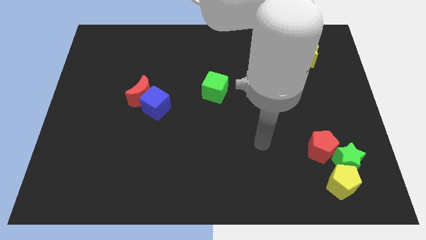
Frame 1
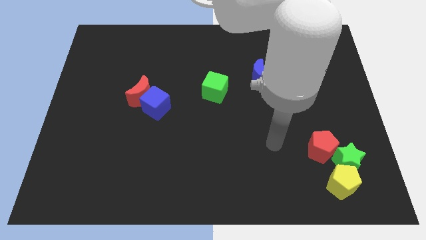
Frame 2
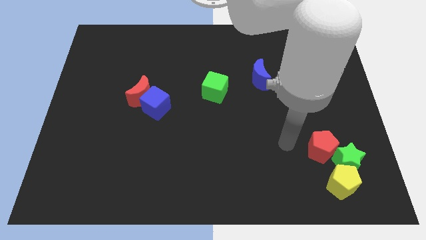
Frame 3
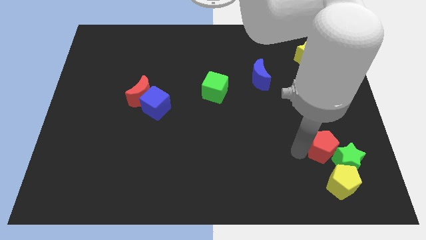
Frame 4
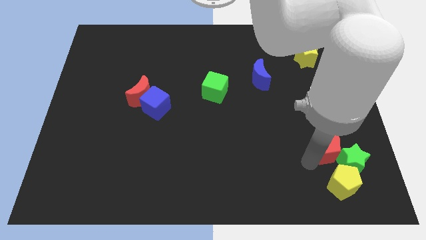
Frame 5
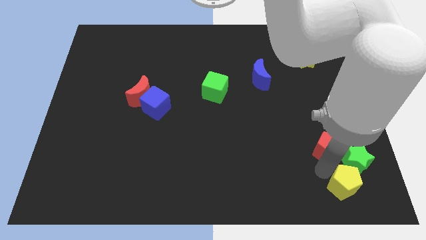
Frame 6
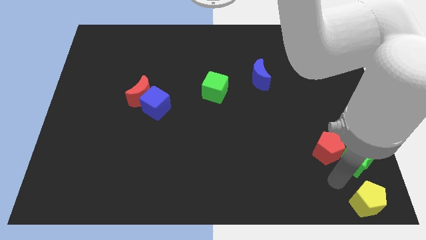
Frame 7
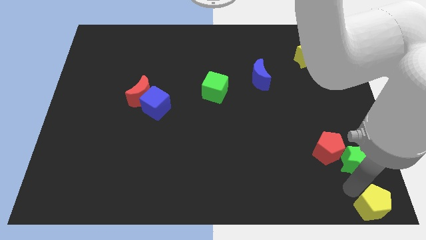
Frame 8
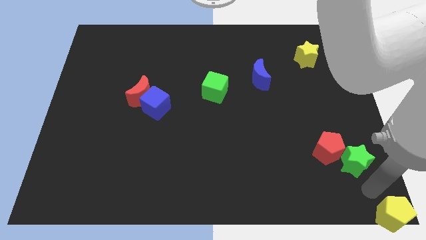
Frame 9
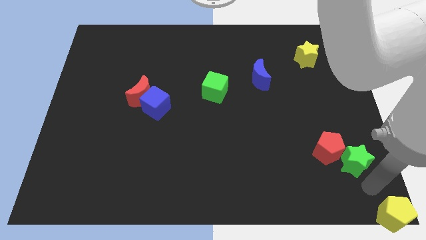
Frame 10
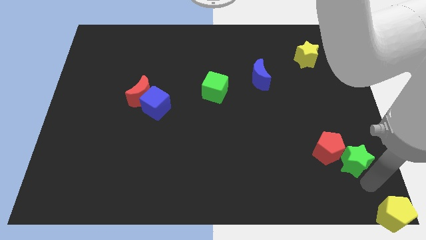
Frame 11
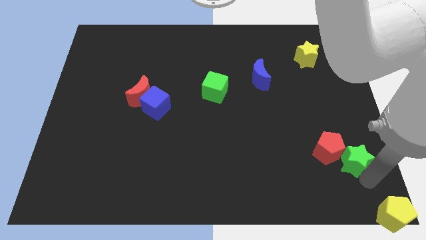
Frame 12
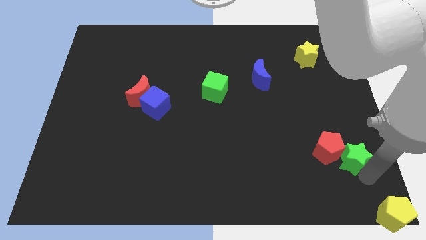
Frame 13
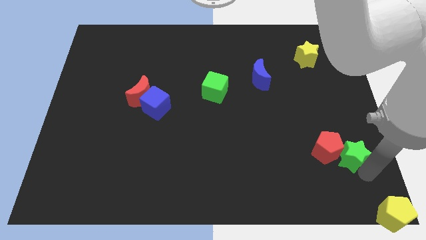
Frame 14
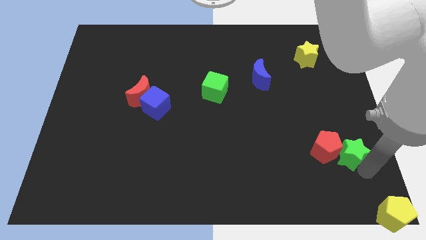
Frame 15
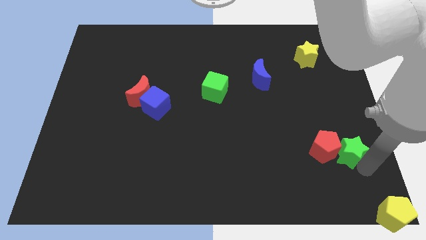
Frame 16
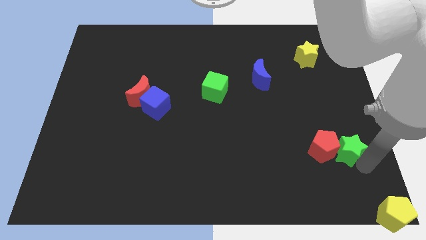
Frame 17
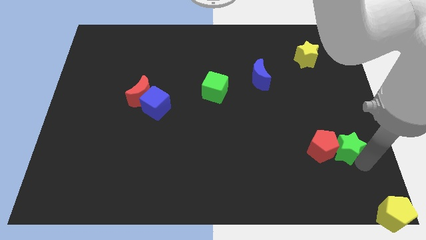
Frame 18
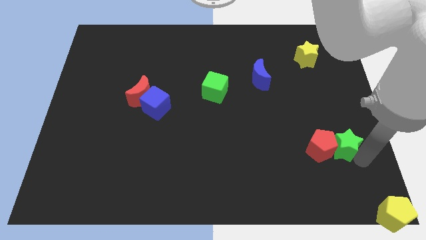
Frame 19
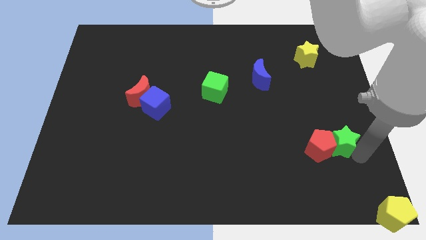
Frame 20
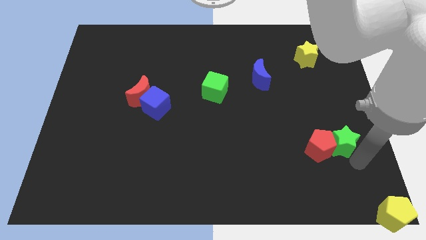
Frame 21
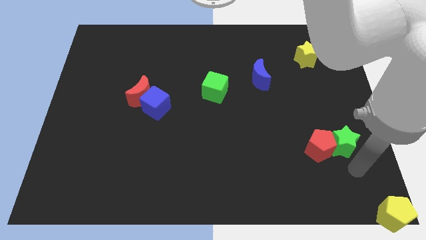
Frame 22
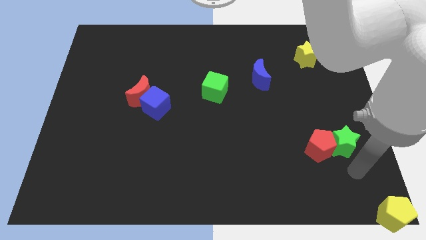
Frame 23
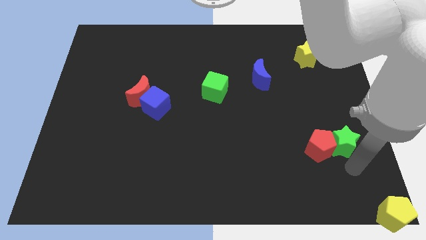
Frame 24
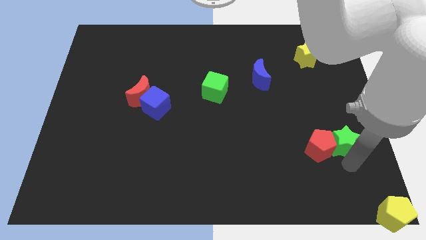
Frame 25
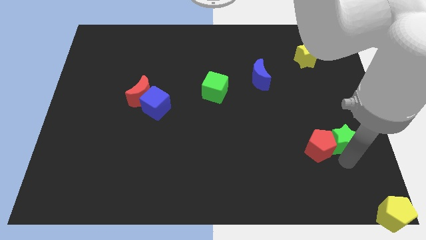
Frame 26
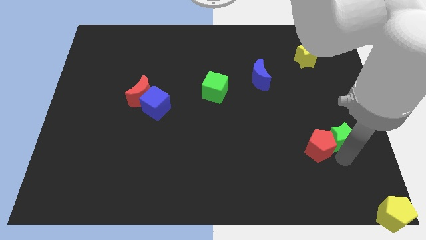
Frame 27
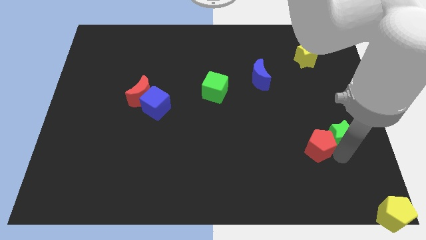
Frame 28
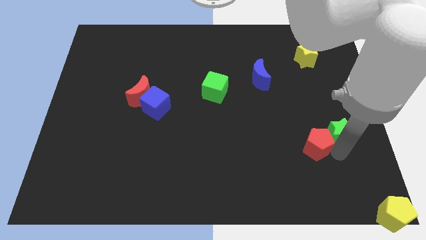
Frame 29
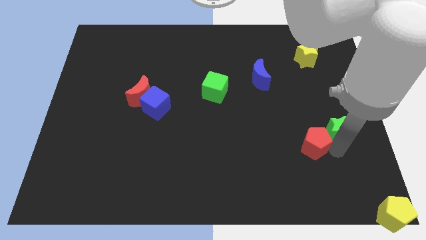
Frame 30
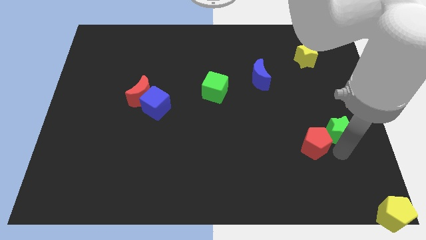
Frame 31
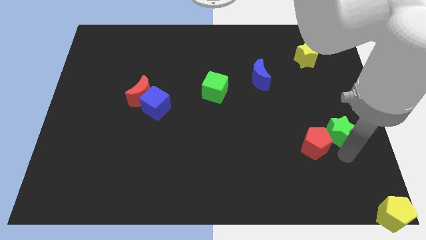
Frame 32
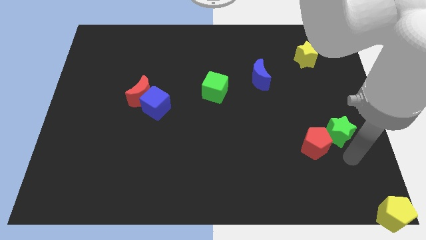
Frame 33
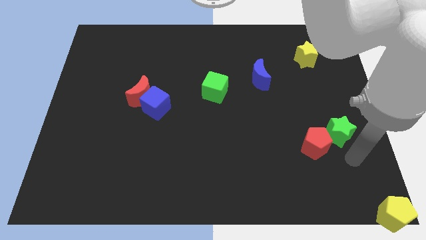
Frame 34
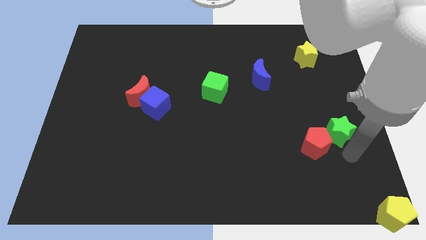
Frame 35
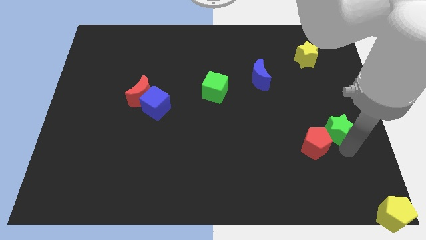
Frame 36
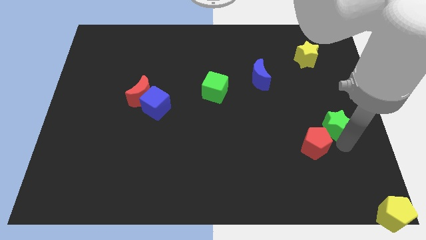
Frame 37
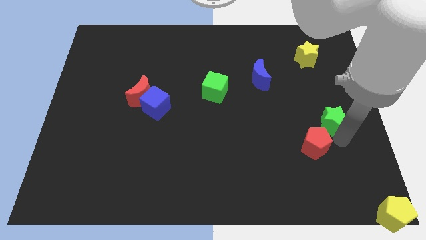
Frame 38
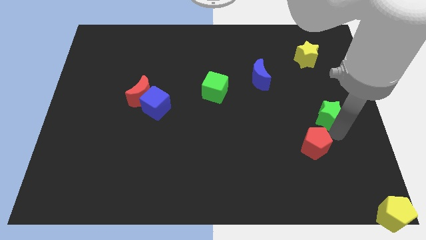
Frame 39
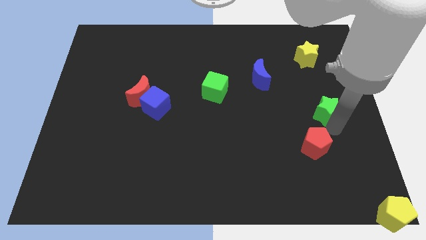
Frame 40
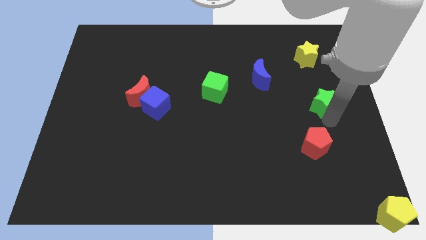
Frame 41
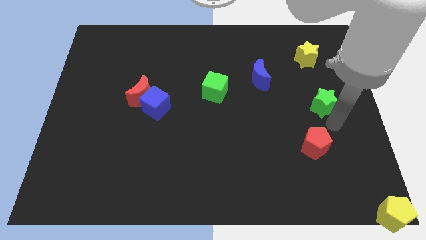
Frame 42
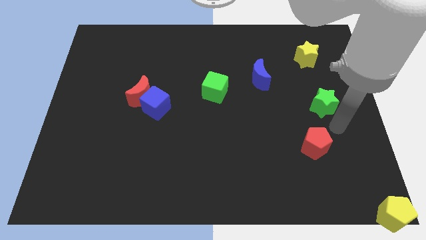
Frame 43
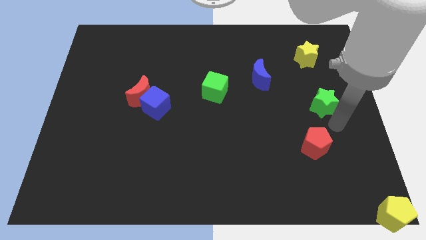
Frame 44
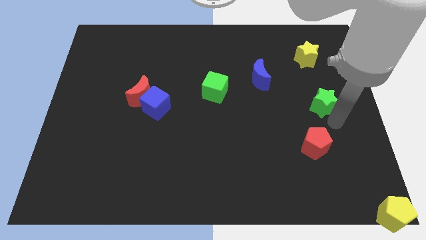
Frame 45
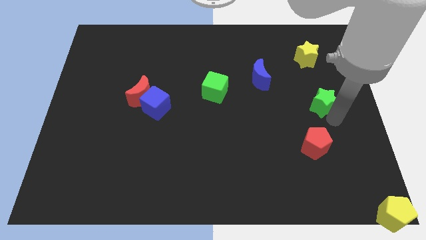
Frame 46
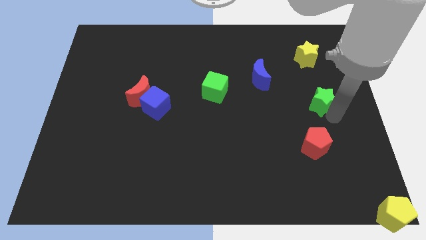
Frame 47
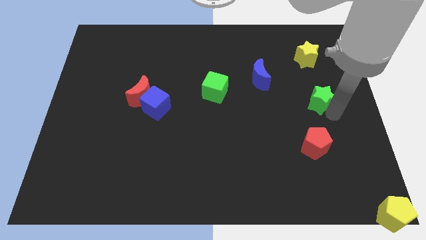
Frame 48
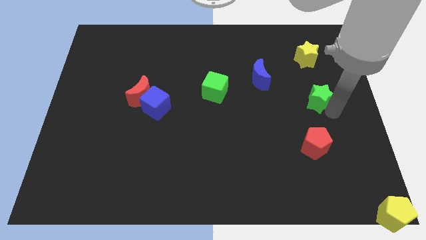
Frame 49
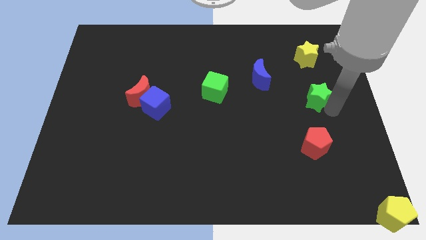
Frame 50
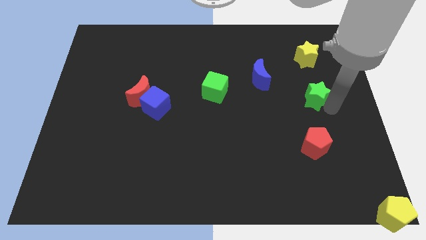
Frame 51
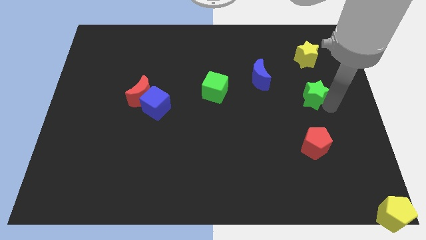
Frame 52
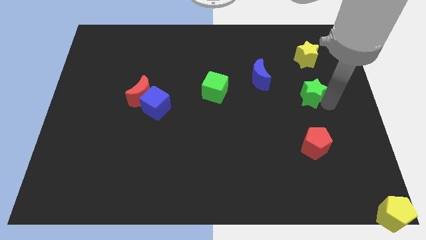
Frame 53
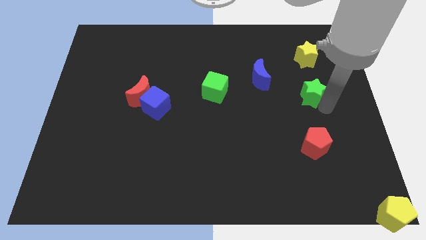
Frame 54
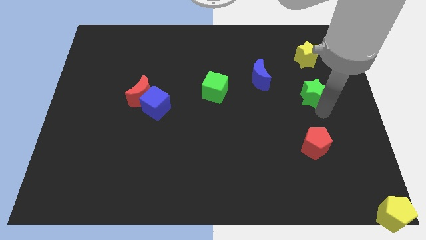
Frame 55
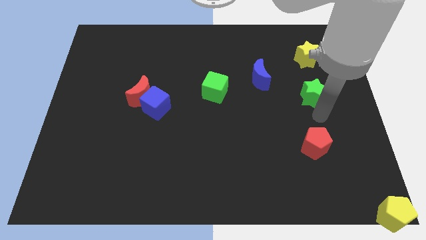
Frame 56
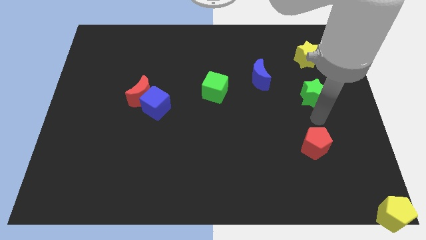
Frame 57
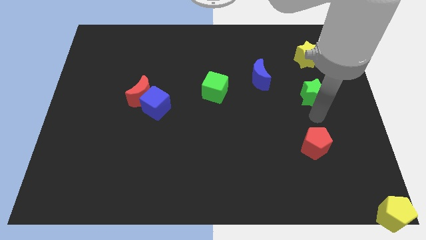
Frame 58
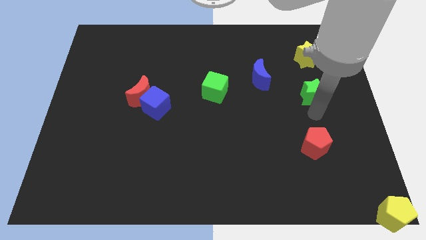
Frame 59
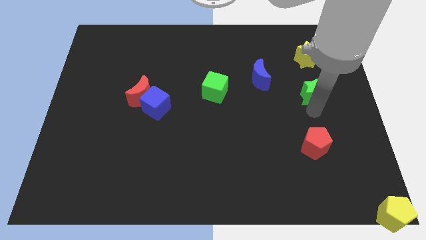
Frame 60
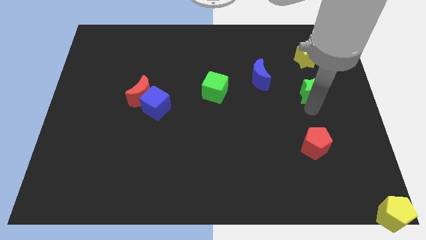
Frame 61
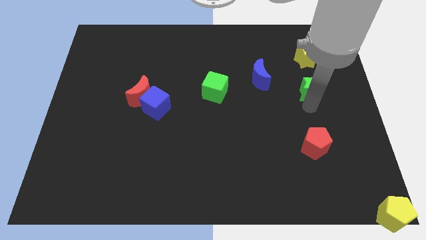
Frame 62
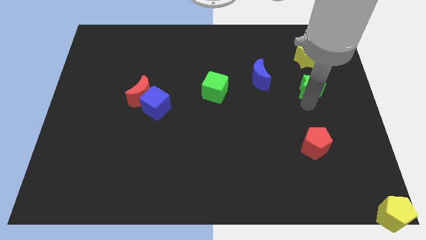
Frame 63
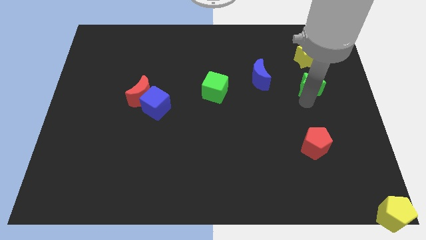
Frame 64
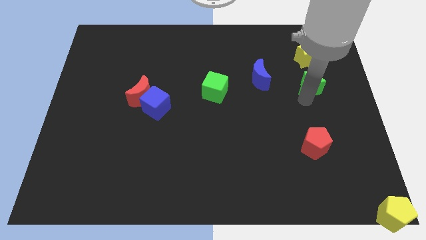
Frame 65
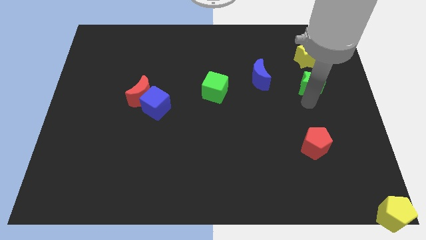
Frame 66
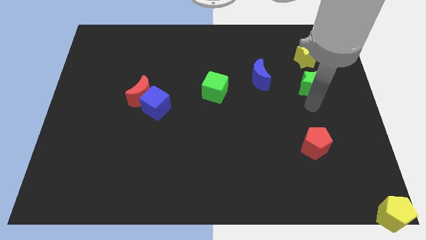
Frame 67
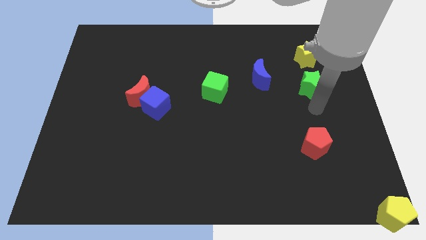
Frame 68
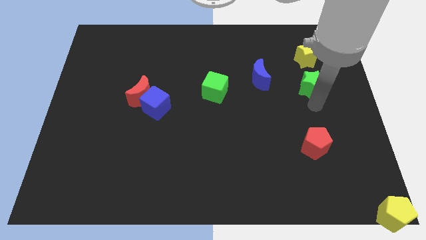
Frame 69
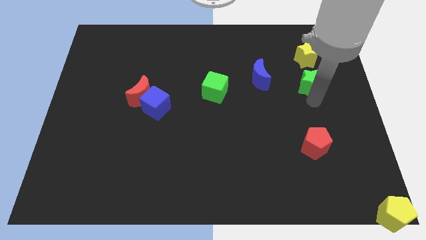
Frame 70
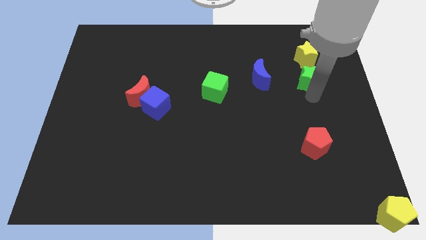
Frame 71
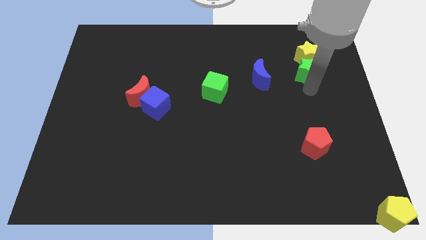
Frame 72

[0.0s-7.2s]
slide the green star to the yellow star
